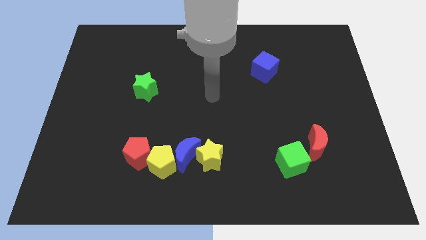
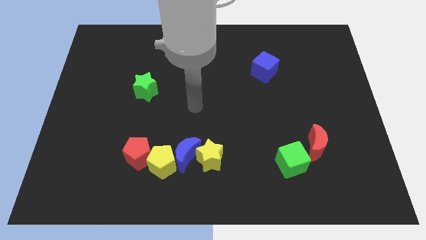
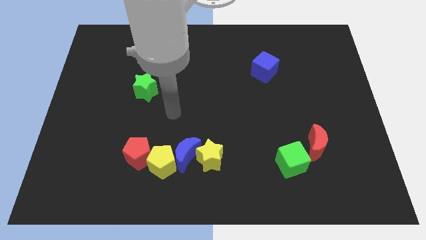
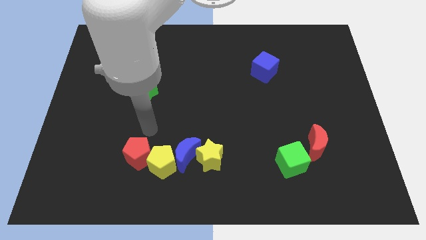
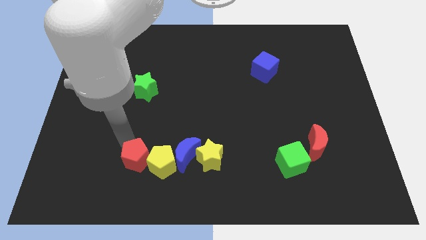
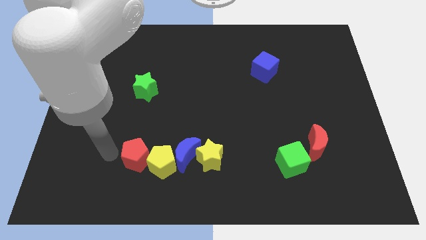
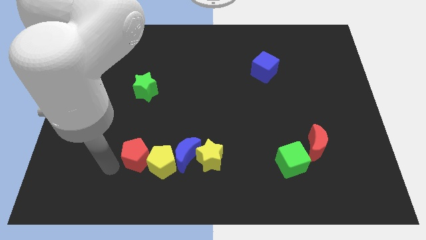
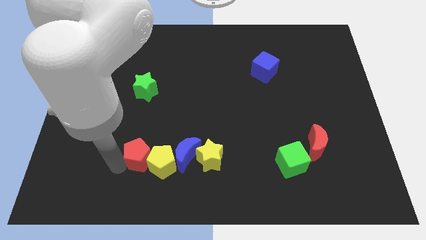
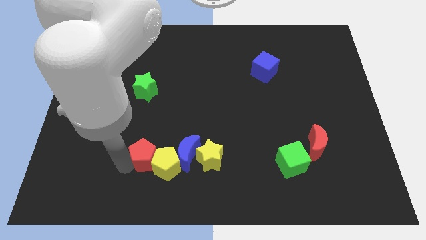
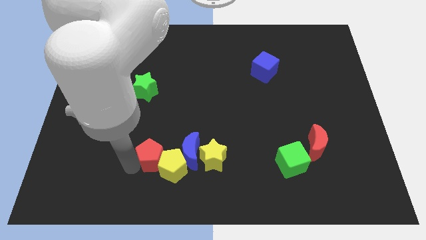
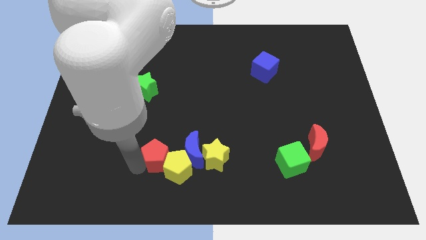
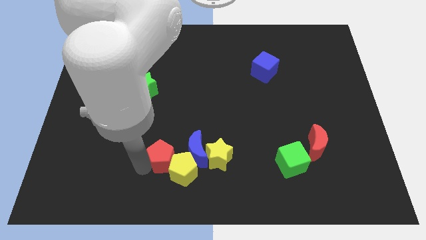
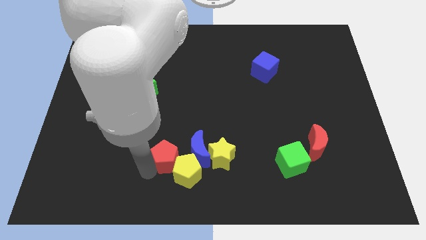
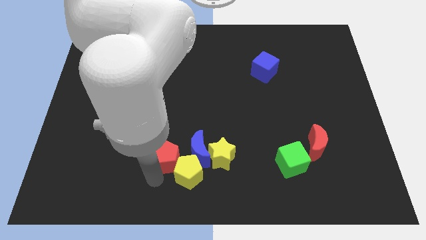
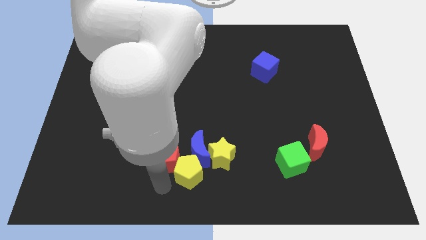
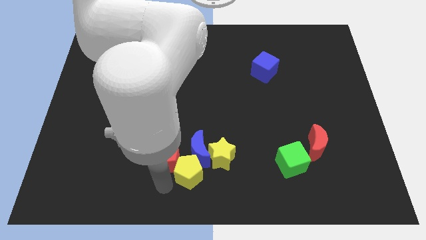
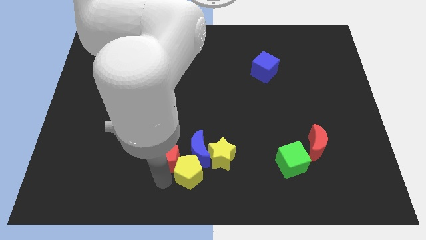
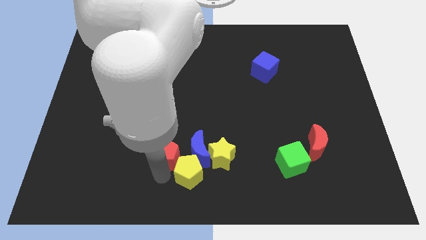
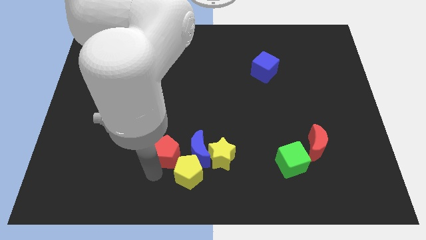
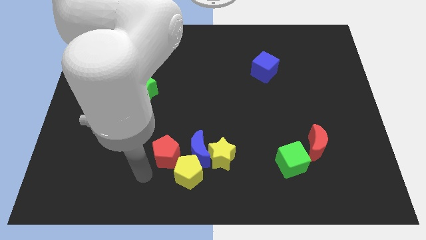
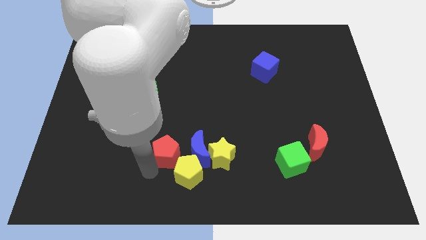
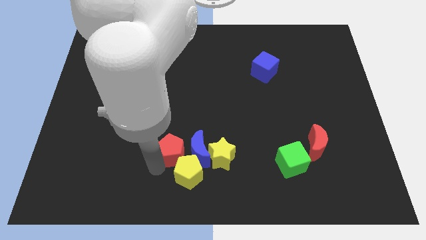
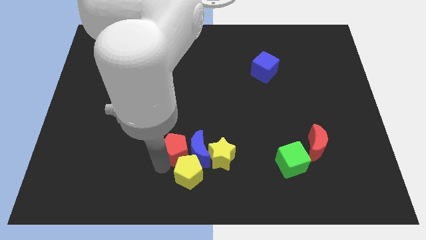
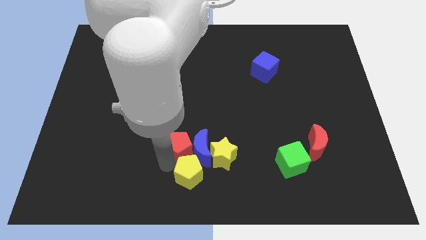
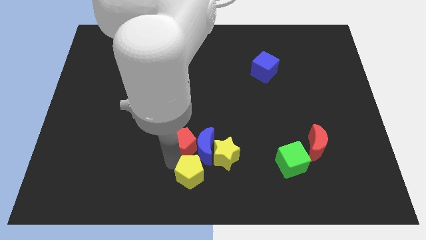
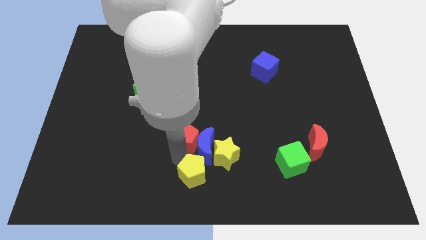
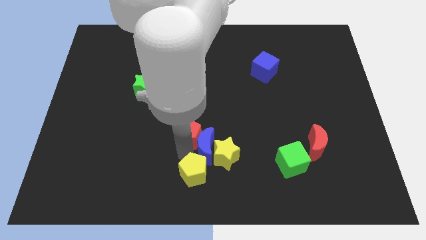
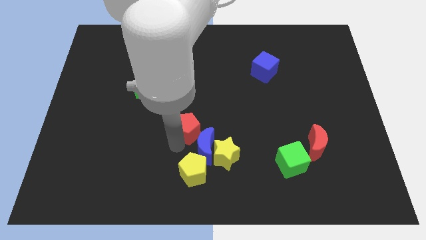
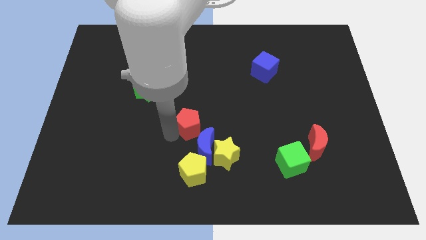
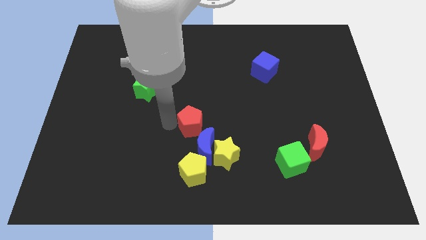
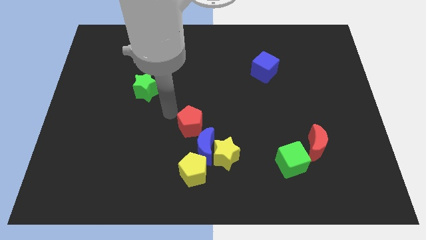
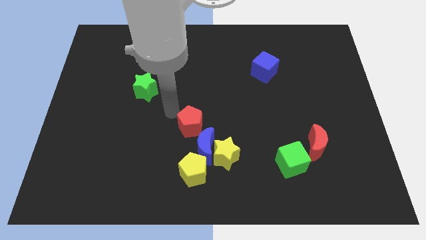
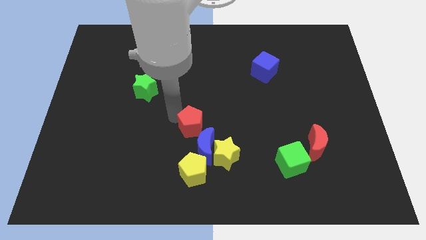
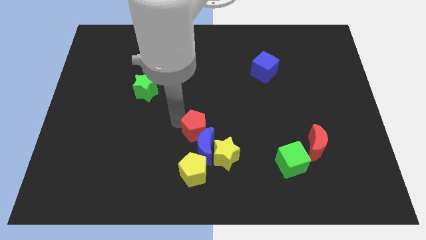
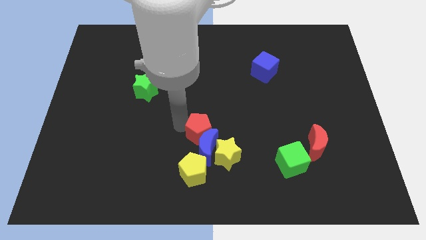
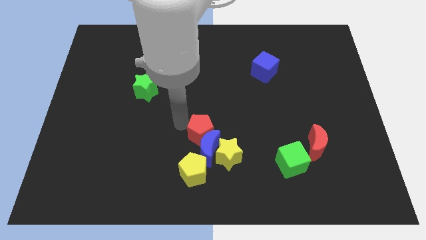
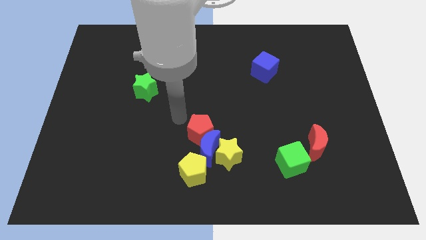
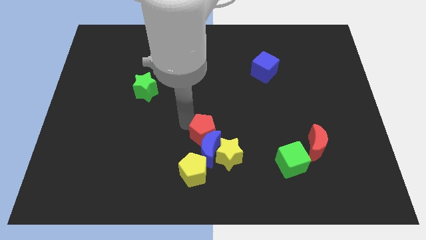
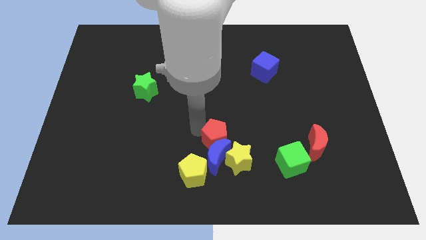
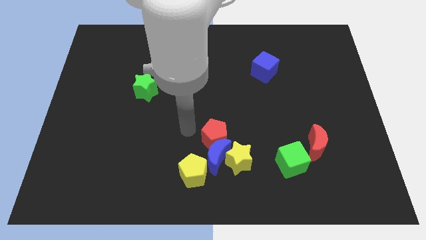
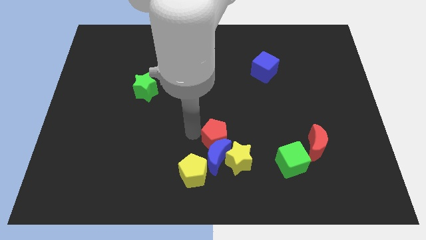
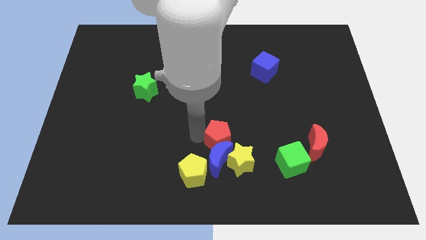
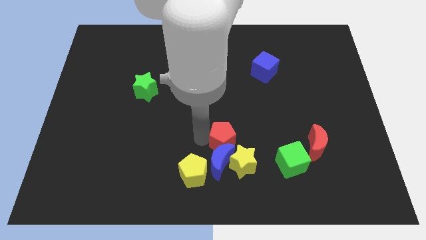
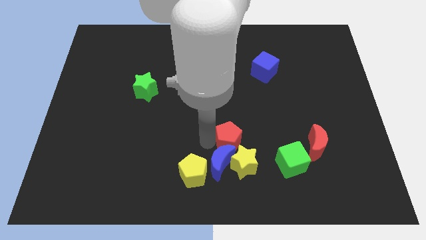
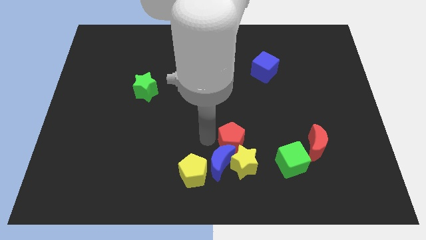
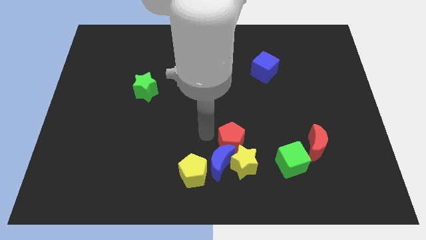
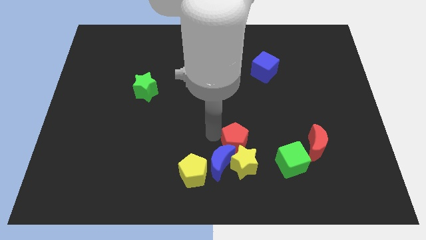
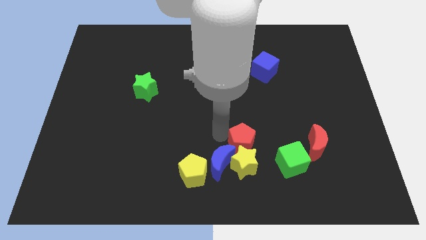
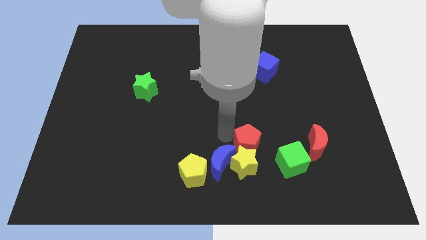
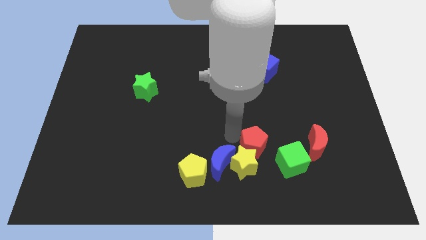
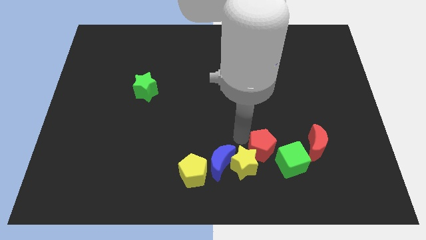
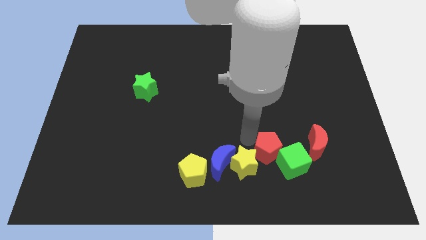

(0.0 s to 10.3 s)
move the red pentagon to the green cube

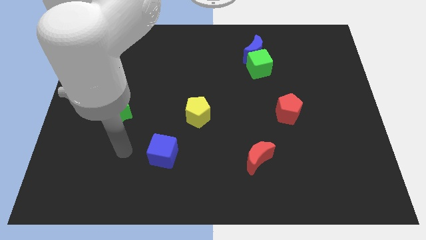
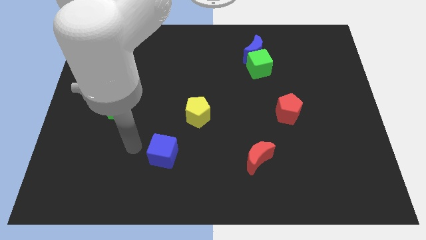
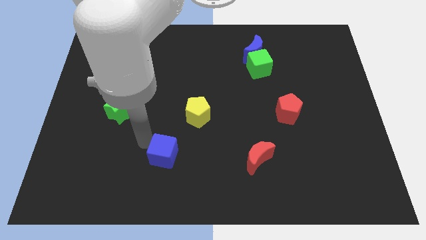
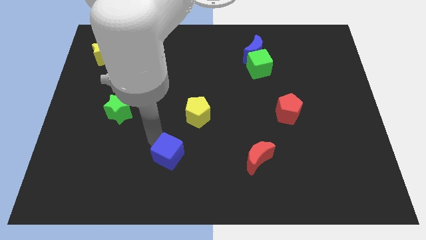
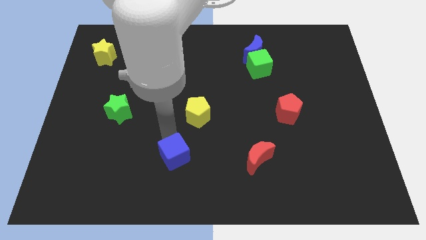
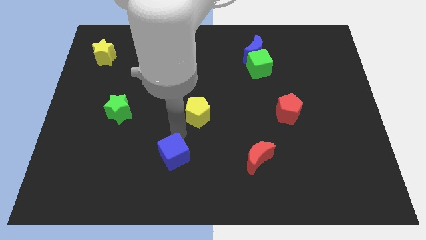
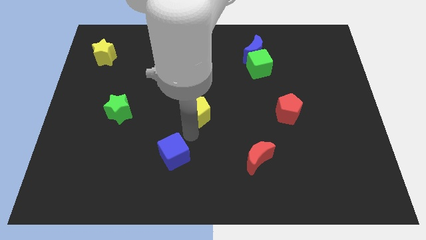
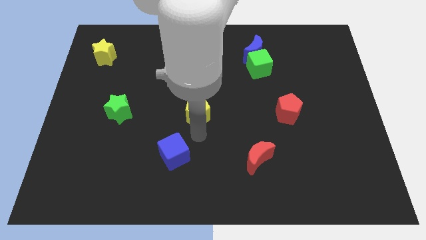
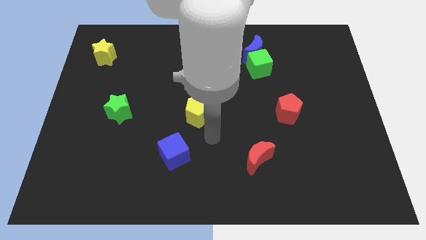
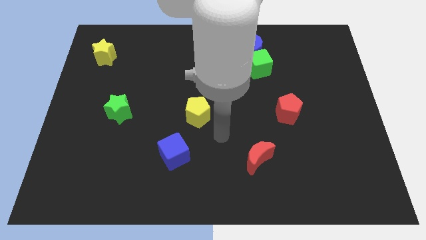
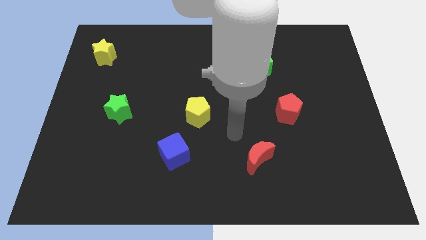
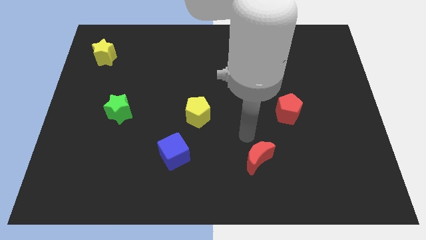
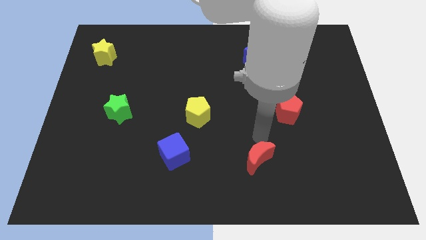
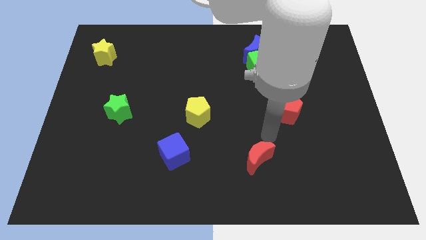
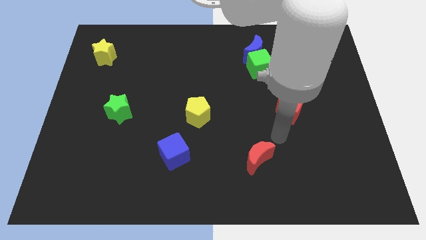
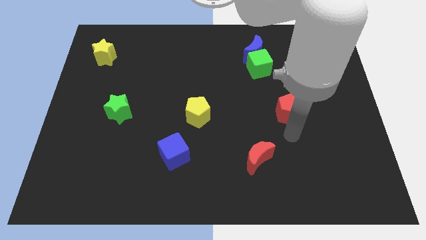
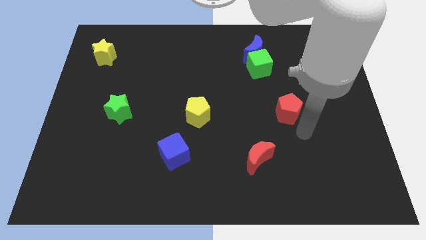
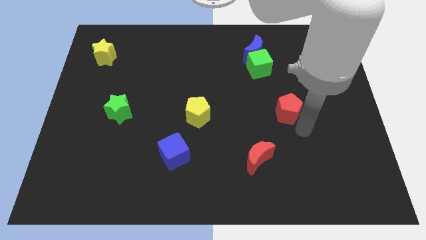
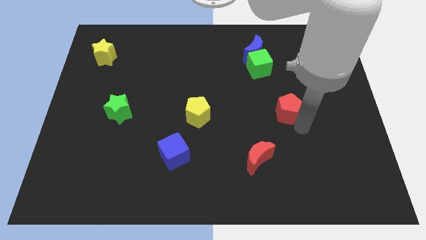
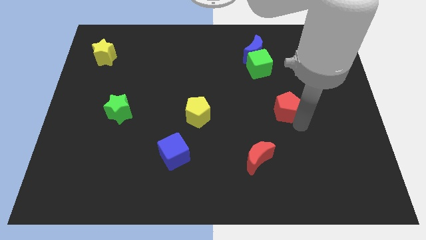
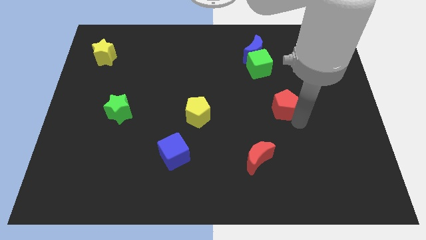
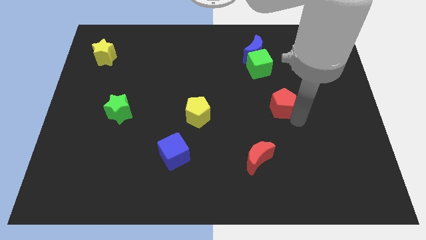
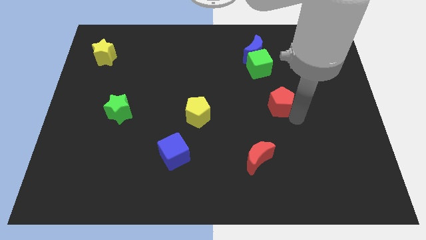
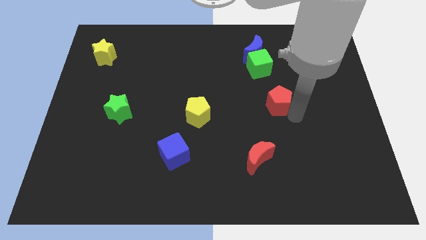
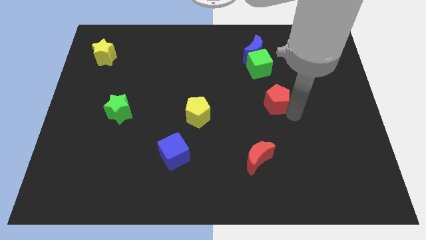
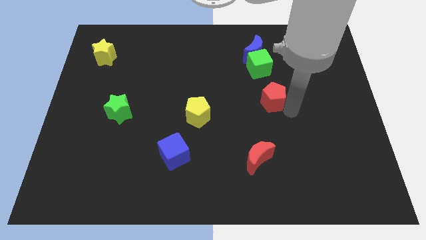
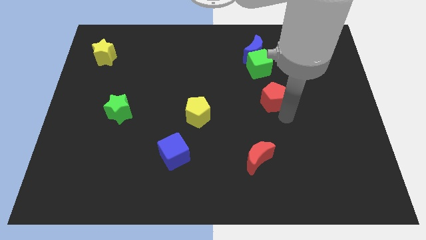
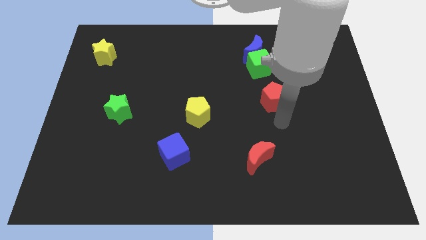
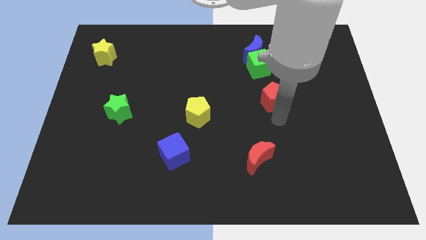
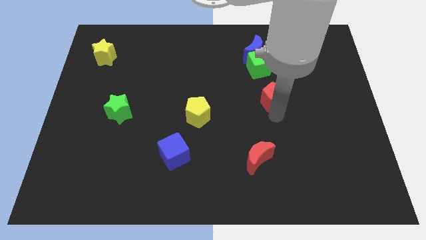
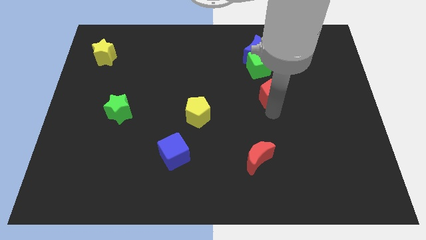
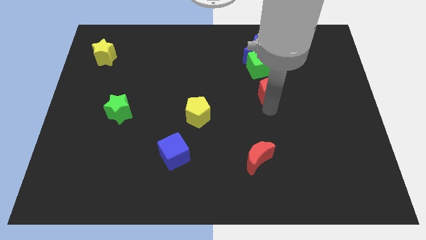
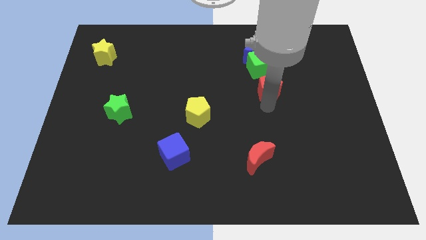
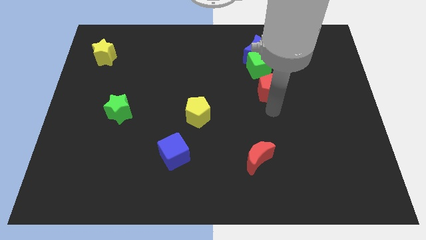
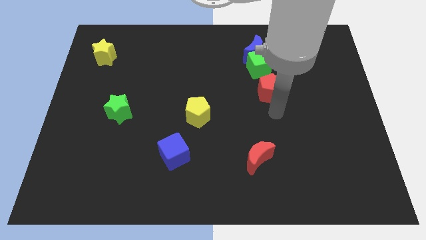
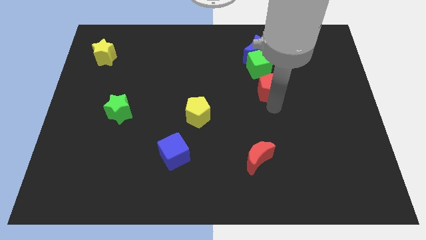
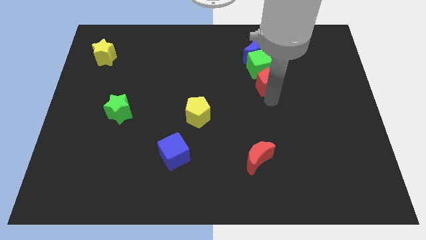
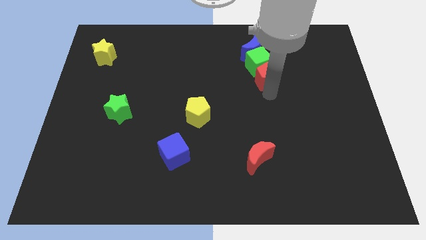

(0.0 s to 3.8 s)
slide the red pentagon to the green cube
